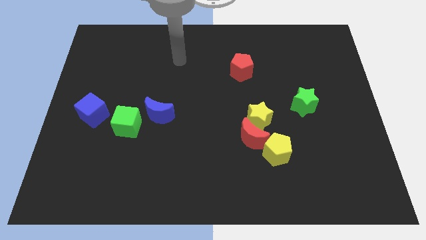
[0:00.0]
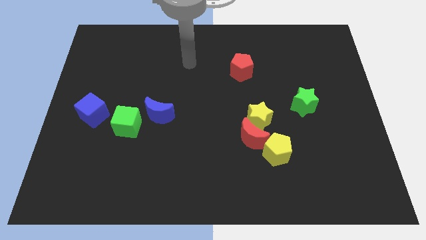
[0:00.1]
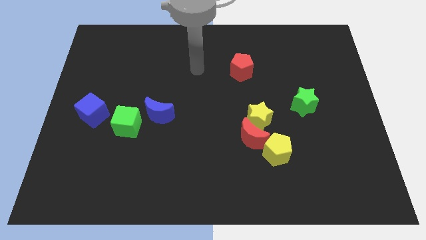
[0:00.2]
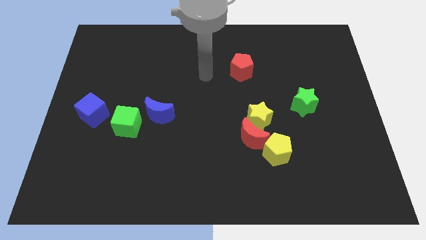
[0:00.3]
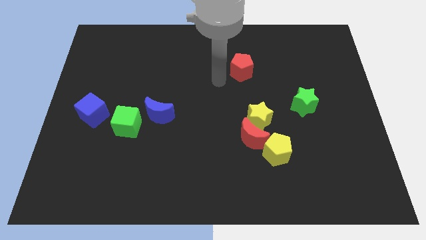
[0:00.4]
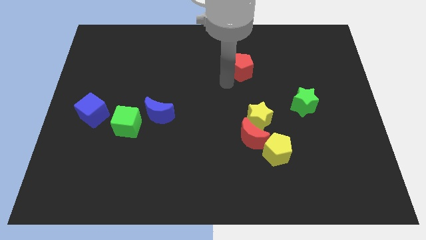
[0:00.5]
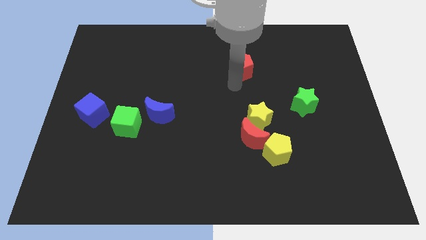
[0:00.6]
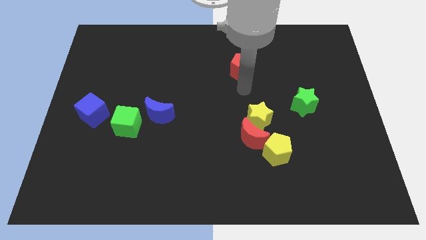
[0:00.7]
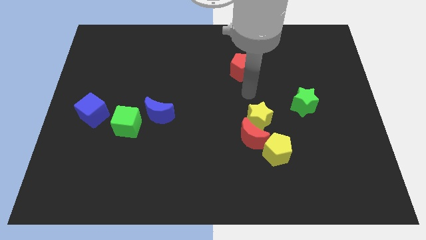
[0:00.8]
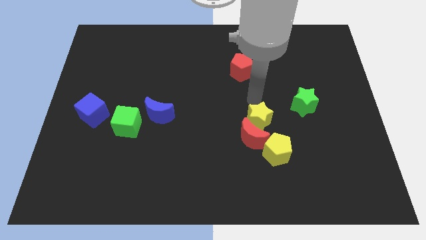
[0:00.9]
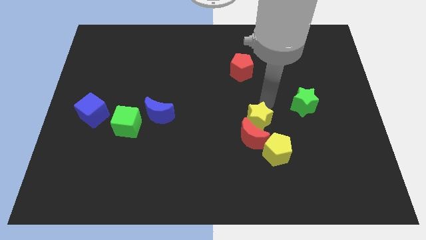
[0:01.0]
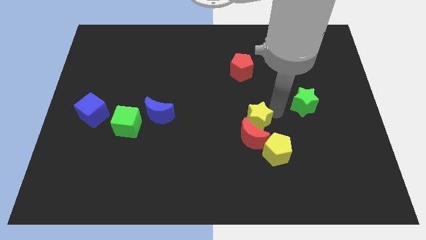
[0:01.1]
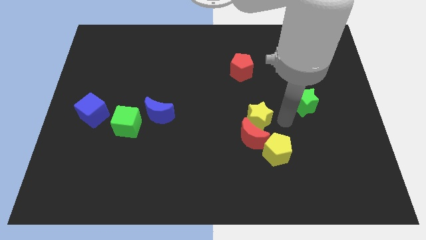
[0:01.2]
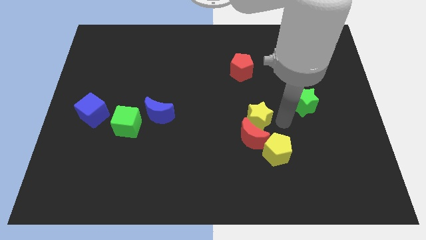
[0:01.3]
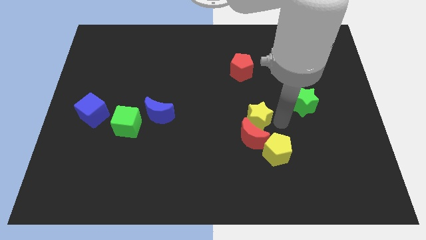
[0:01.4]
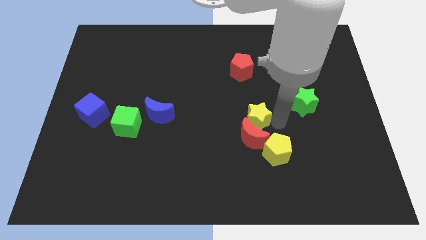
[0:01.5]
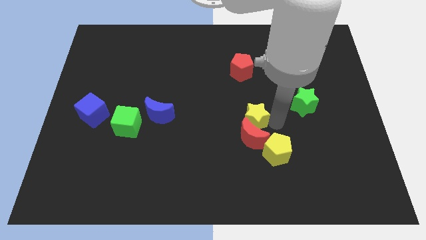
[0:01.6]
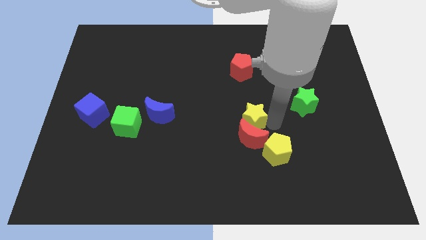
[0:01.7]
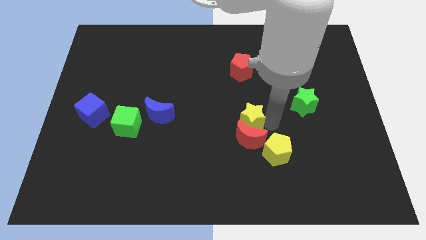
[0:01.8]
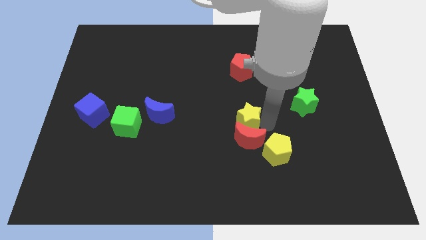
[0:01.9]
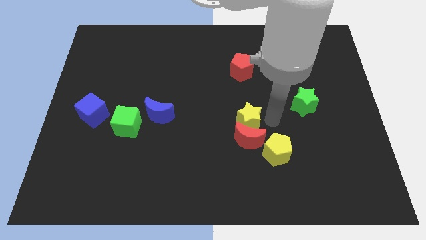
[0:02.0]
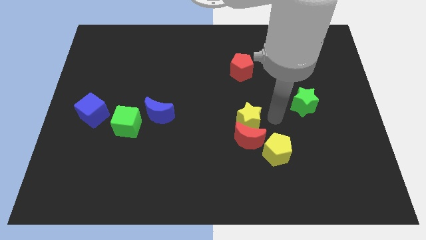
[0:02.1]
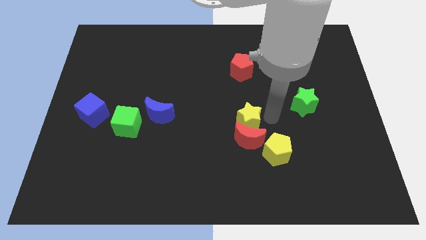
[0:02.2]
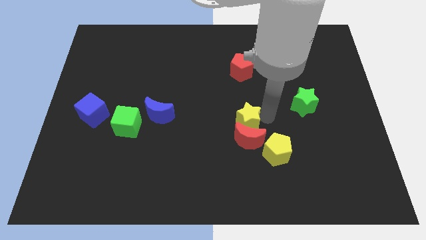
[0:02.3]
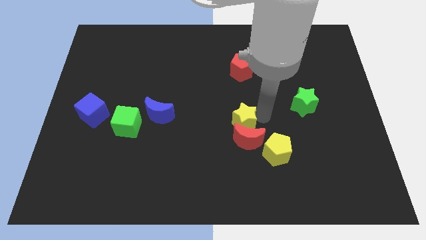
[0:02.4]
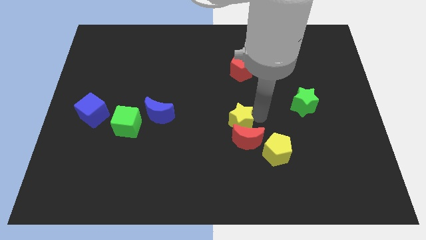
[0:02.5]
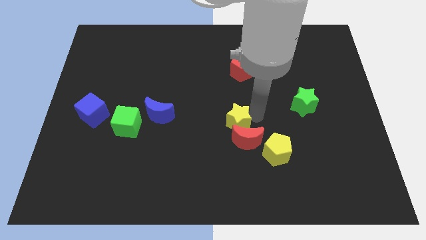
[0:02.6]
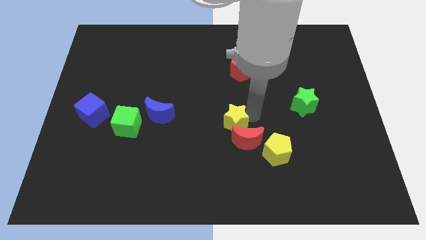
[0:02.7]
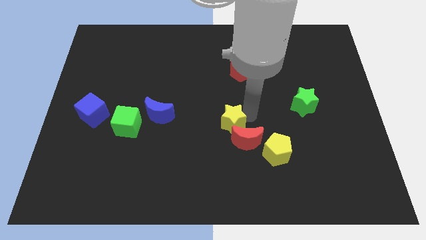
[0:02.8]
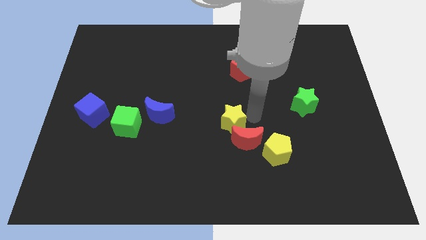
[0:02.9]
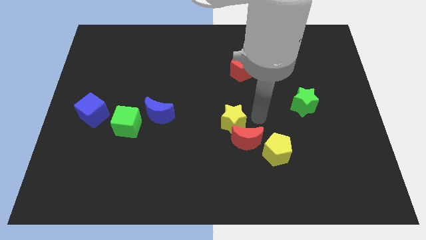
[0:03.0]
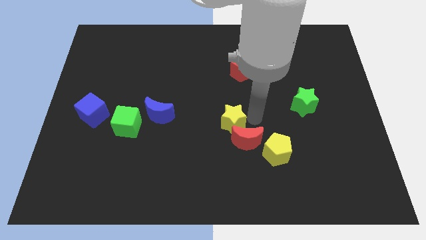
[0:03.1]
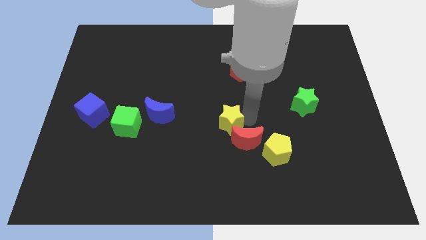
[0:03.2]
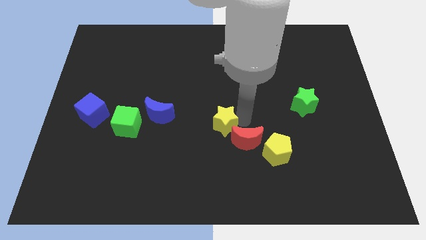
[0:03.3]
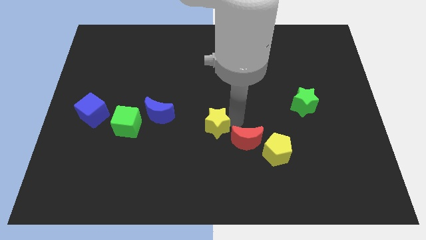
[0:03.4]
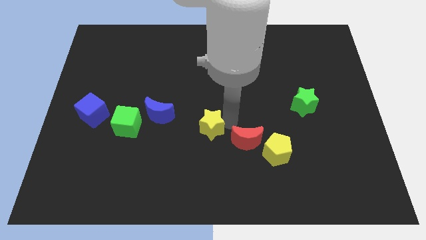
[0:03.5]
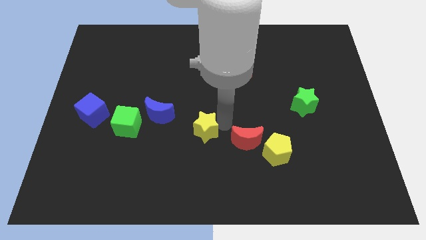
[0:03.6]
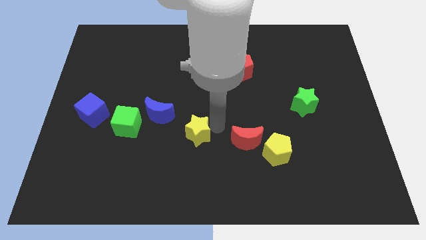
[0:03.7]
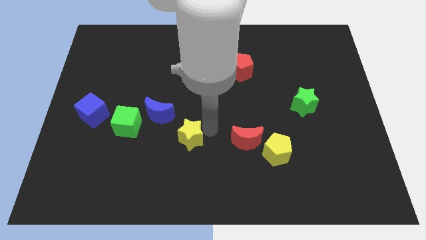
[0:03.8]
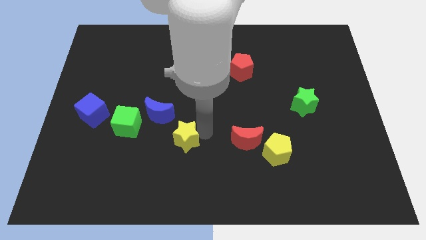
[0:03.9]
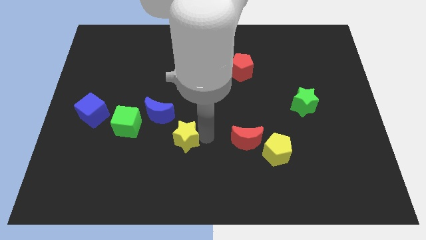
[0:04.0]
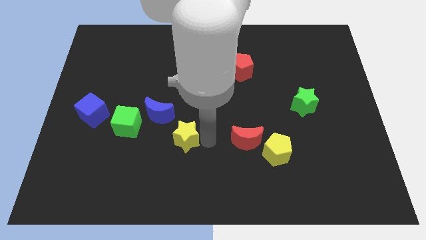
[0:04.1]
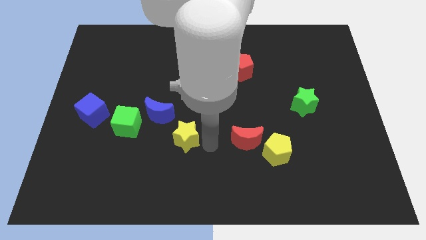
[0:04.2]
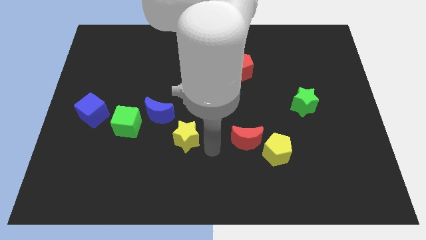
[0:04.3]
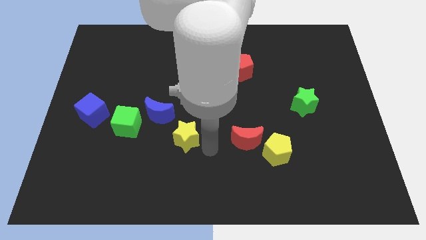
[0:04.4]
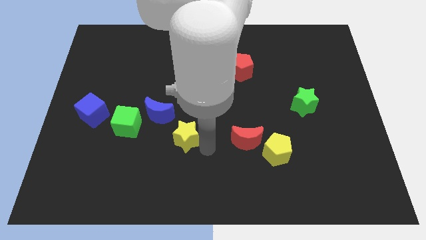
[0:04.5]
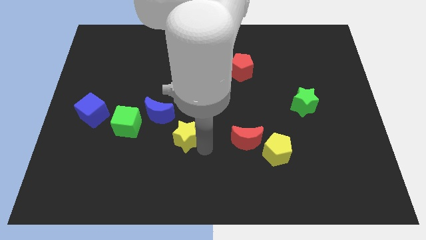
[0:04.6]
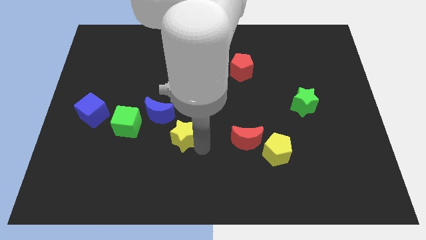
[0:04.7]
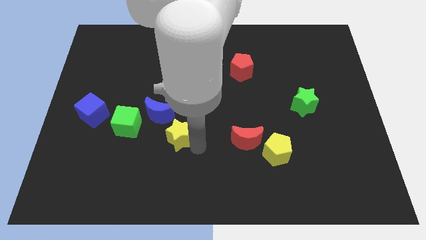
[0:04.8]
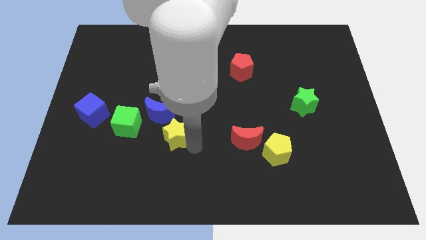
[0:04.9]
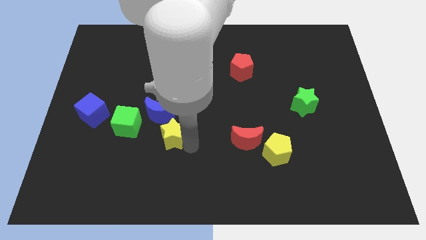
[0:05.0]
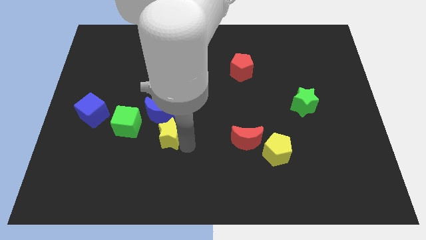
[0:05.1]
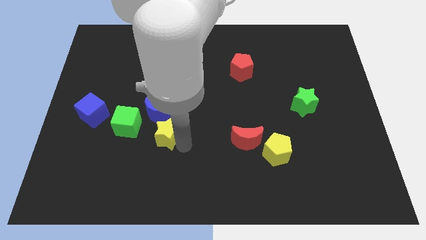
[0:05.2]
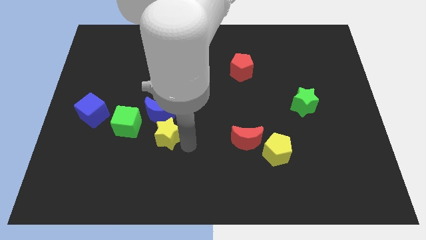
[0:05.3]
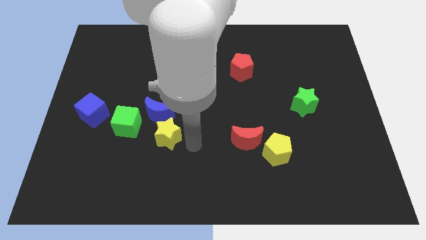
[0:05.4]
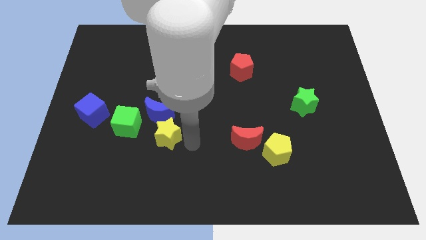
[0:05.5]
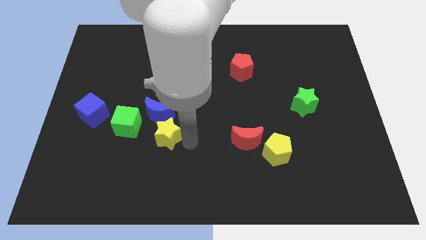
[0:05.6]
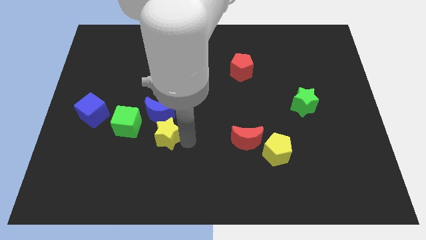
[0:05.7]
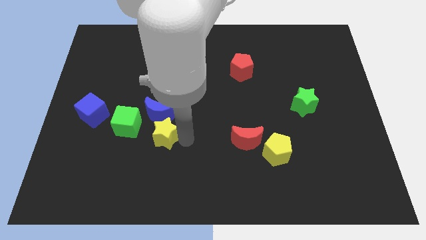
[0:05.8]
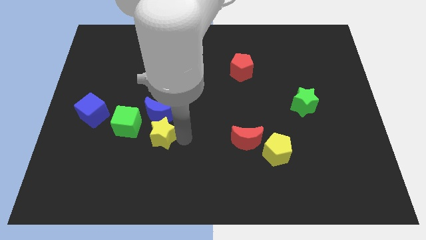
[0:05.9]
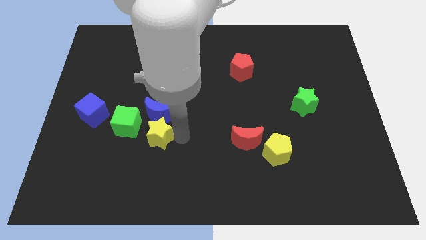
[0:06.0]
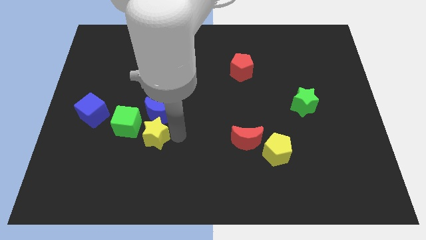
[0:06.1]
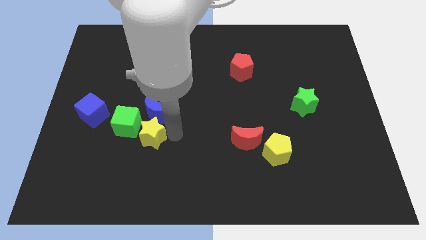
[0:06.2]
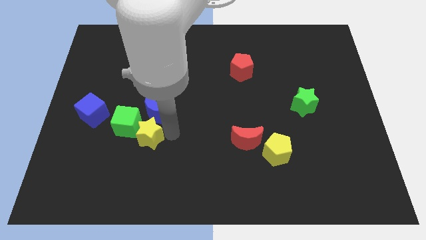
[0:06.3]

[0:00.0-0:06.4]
move the yellow star next to the green cube

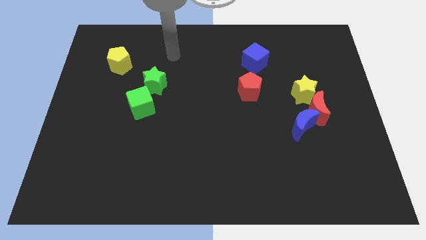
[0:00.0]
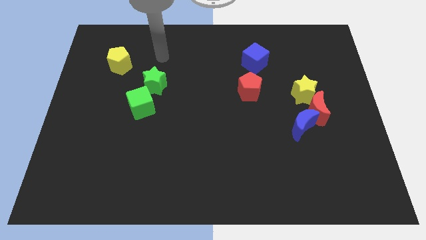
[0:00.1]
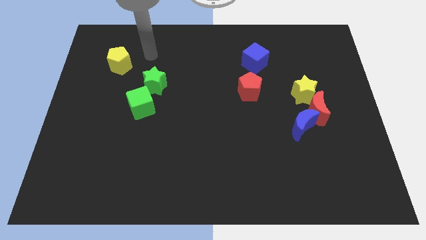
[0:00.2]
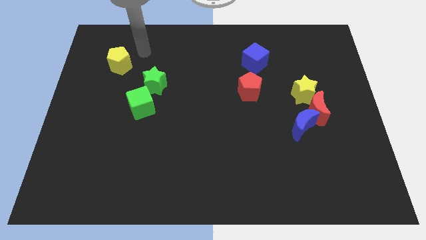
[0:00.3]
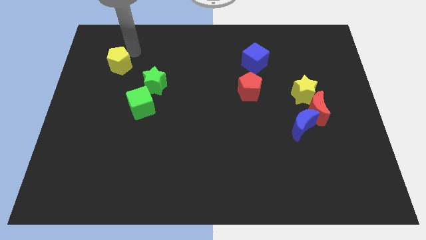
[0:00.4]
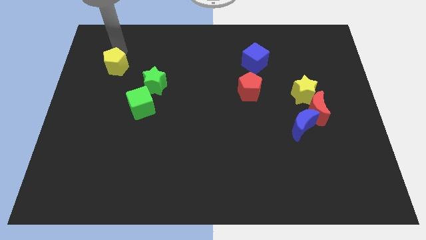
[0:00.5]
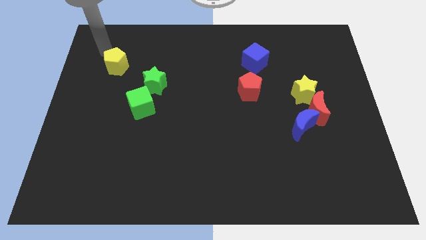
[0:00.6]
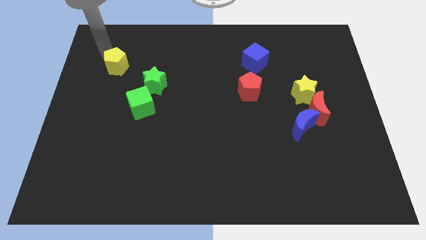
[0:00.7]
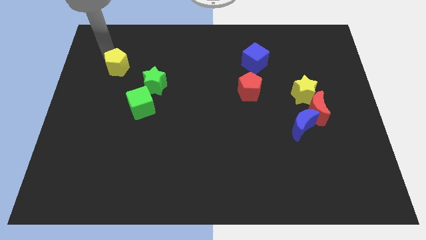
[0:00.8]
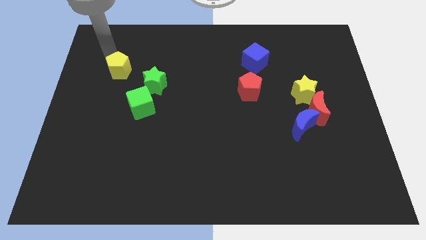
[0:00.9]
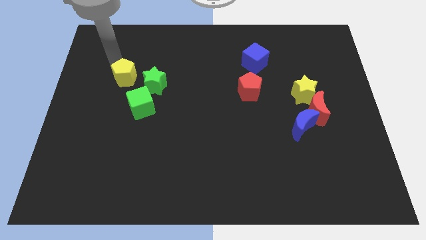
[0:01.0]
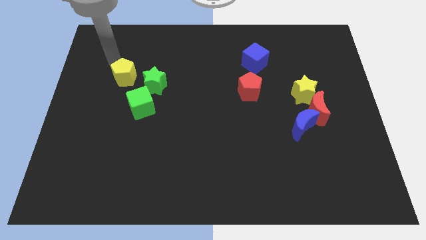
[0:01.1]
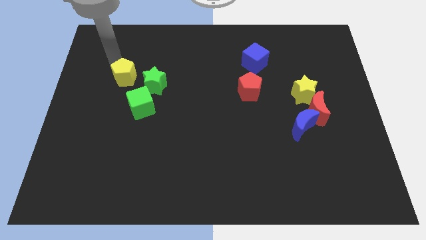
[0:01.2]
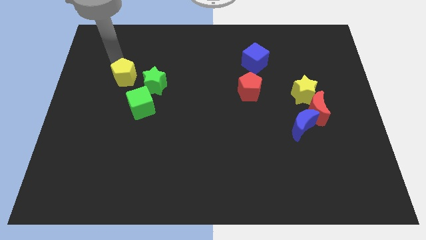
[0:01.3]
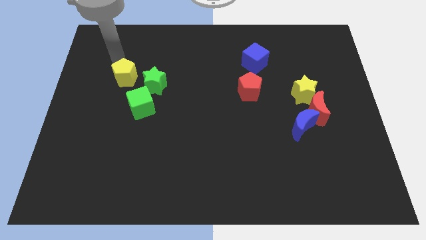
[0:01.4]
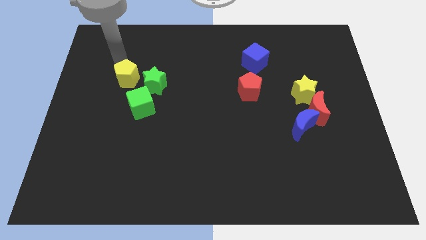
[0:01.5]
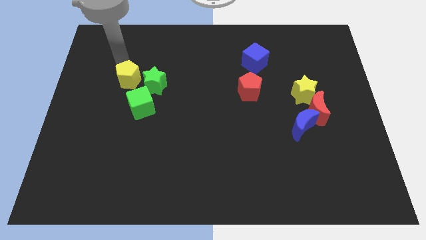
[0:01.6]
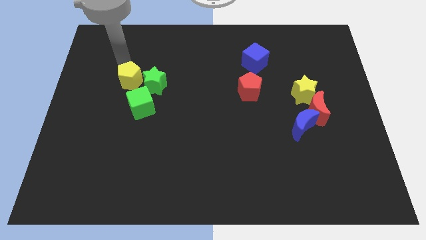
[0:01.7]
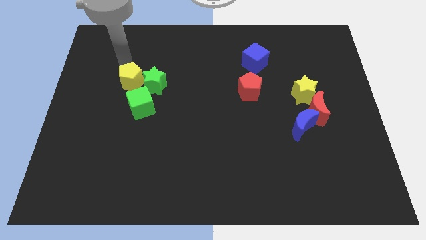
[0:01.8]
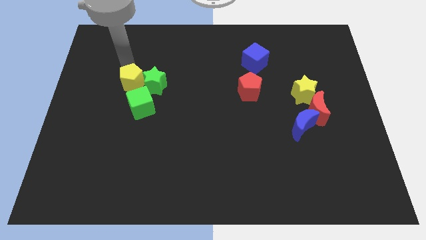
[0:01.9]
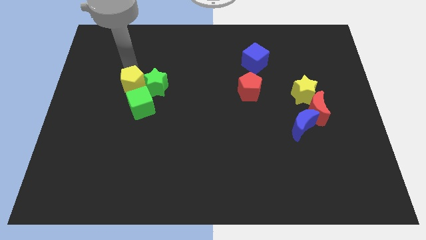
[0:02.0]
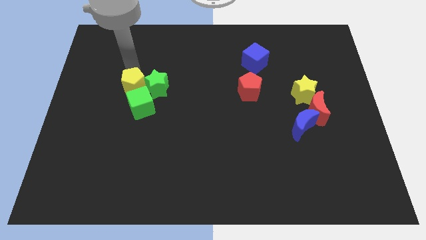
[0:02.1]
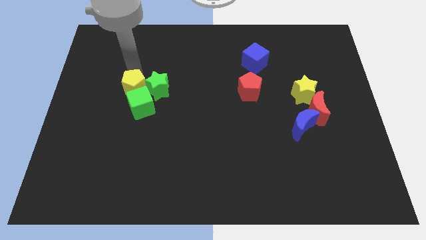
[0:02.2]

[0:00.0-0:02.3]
put the yellow pentagon towards the green cube
